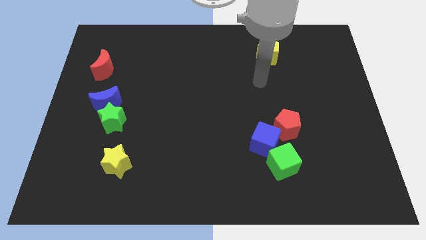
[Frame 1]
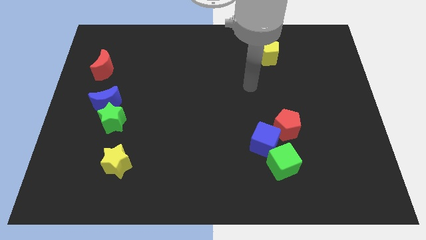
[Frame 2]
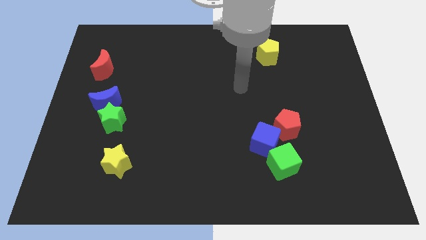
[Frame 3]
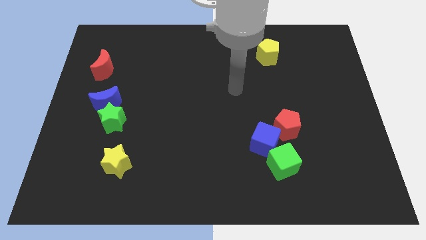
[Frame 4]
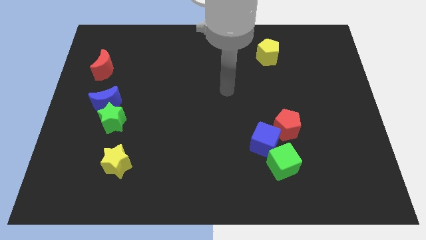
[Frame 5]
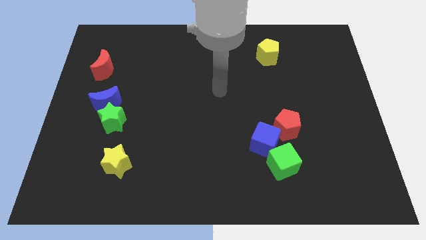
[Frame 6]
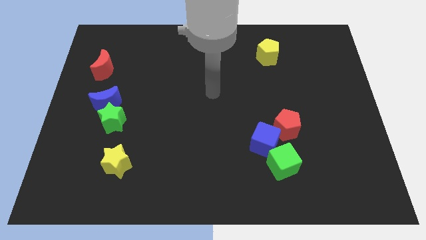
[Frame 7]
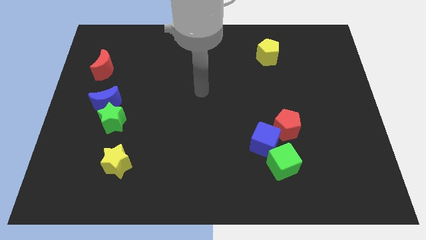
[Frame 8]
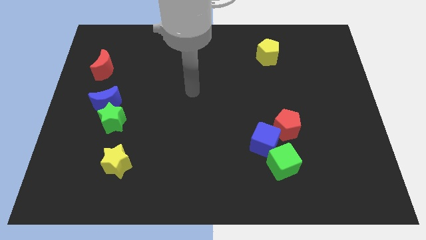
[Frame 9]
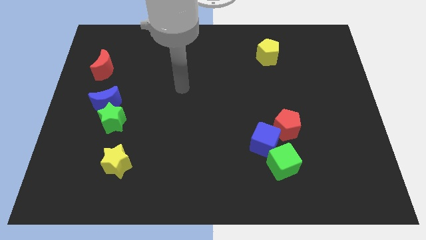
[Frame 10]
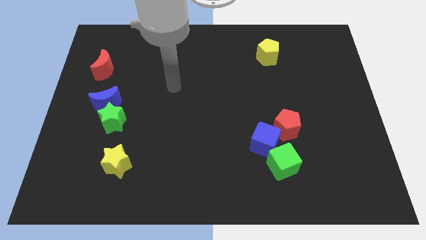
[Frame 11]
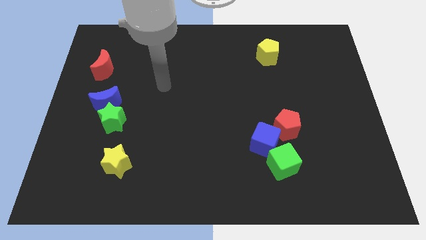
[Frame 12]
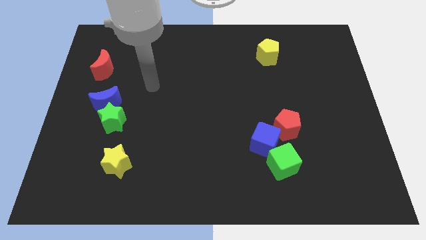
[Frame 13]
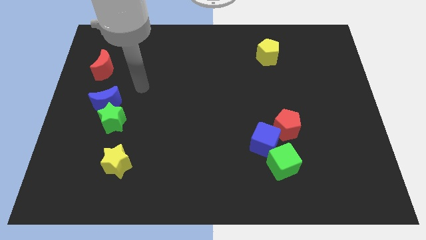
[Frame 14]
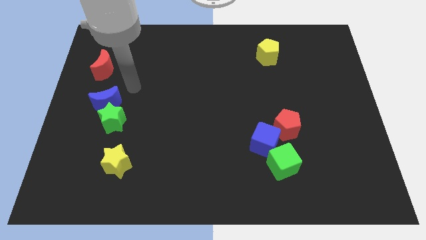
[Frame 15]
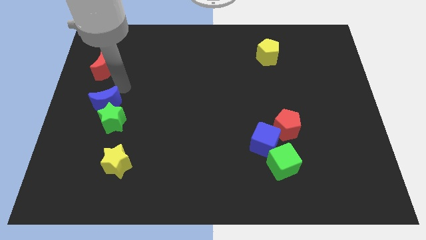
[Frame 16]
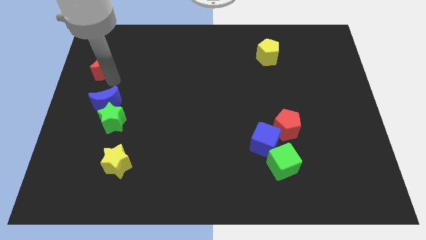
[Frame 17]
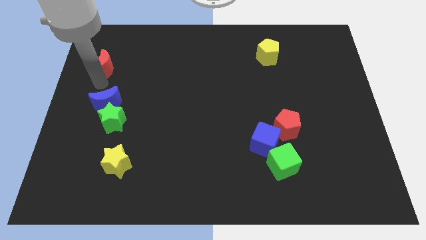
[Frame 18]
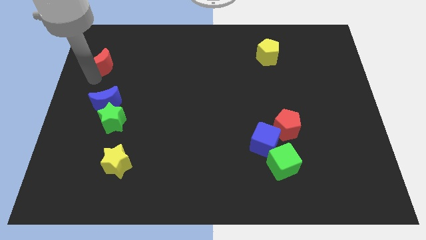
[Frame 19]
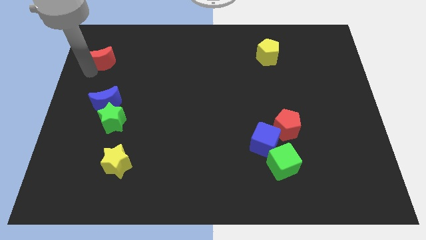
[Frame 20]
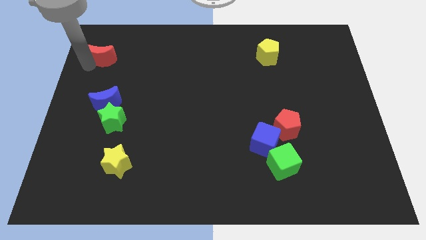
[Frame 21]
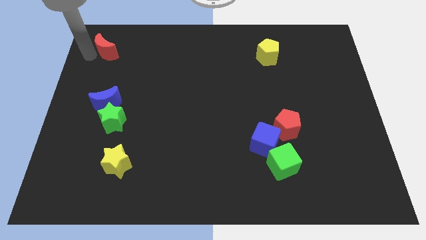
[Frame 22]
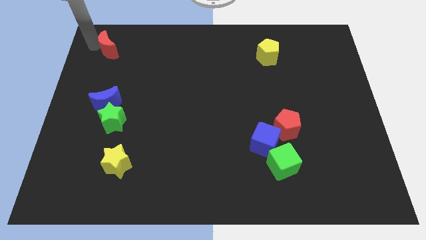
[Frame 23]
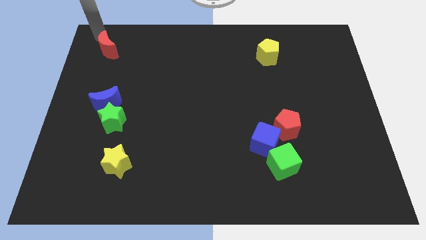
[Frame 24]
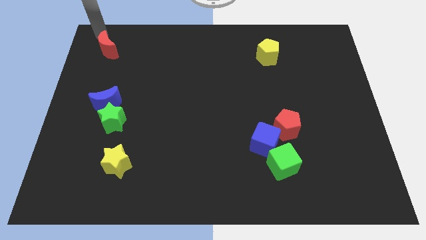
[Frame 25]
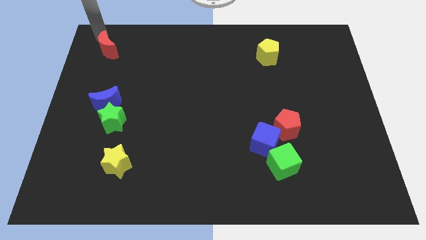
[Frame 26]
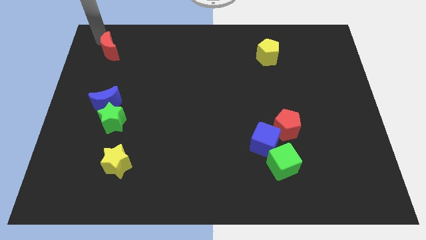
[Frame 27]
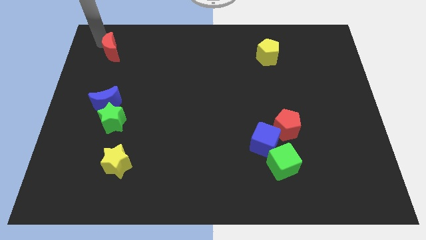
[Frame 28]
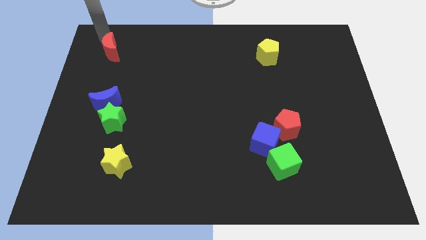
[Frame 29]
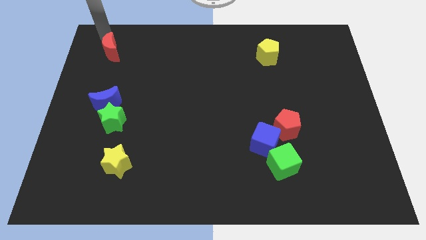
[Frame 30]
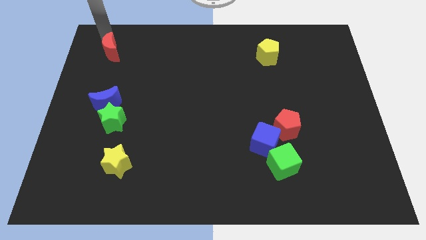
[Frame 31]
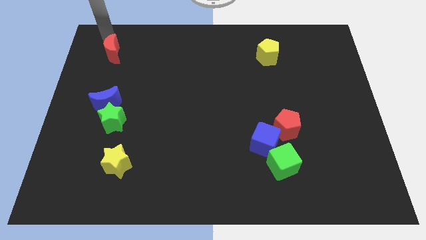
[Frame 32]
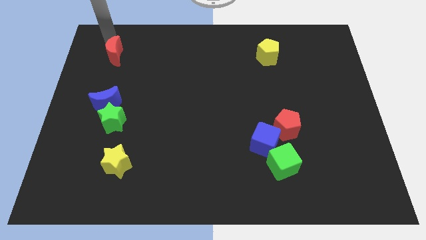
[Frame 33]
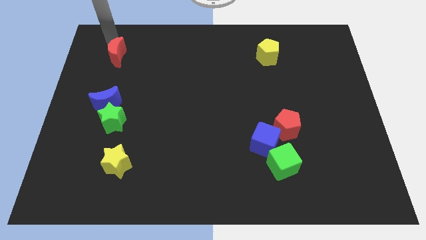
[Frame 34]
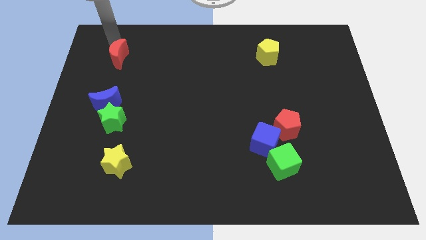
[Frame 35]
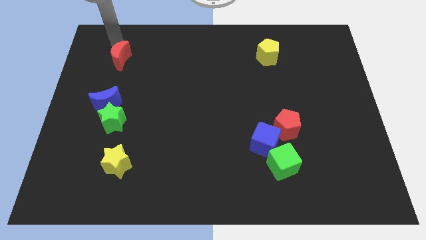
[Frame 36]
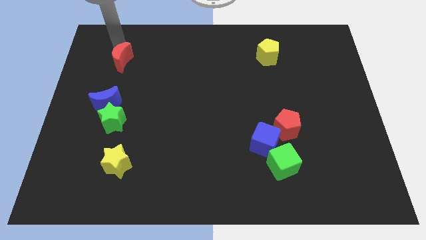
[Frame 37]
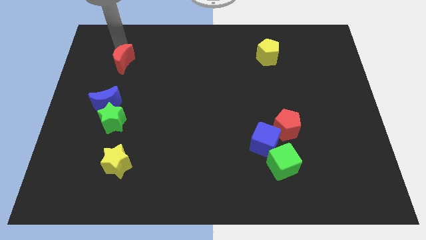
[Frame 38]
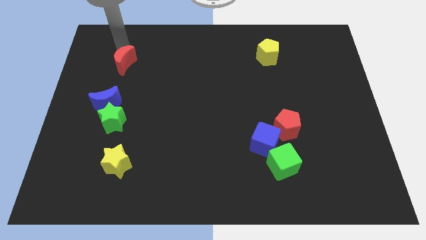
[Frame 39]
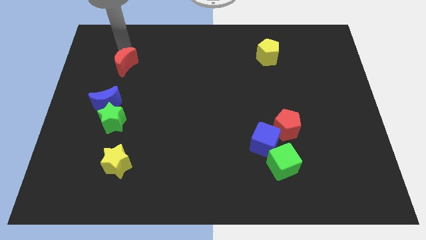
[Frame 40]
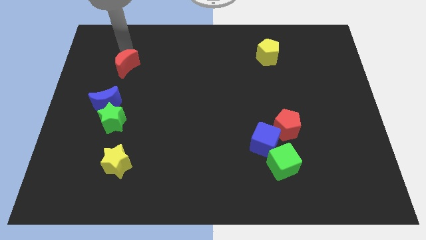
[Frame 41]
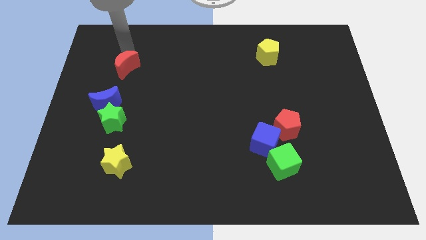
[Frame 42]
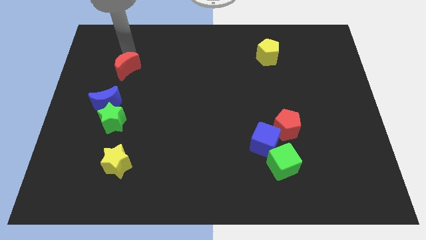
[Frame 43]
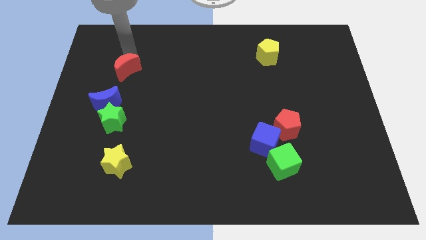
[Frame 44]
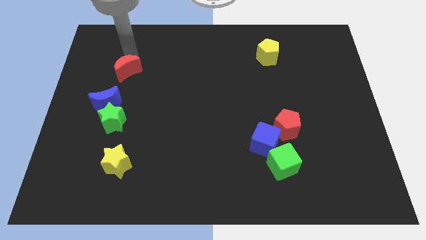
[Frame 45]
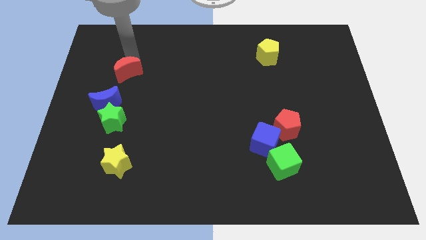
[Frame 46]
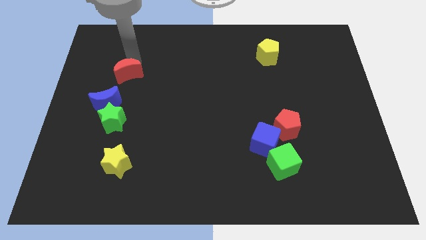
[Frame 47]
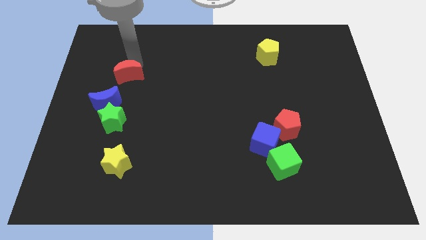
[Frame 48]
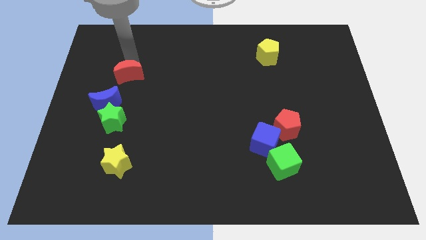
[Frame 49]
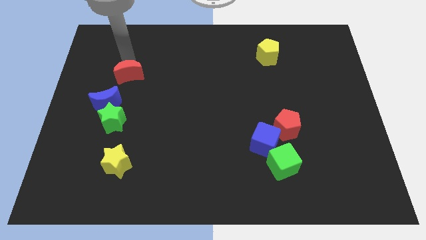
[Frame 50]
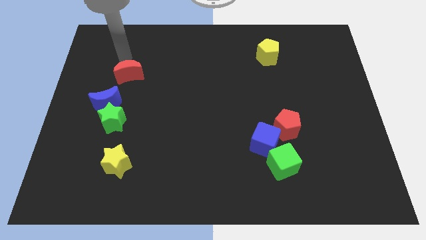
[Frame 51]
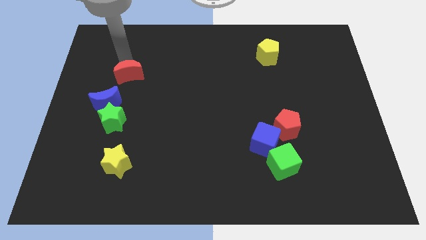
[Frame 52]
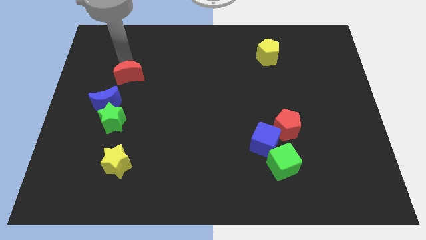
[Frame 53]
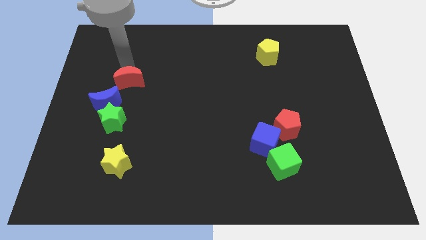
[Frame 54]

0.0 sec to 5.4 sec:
slightly push the red moon downwards and to the right diagonally

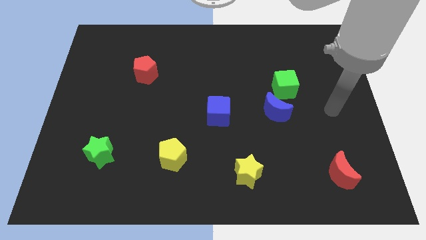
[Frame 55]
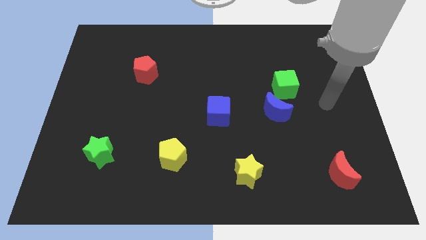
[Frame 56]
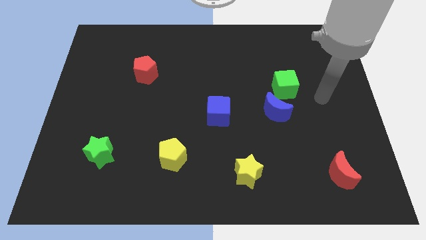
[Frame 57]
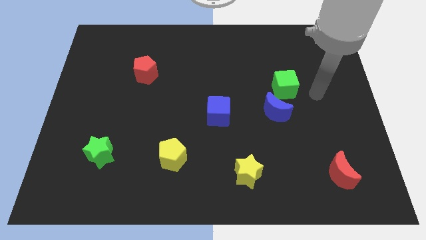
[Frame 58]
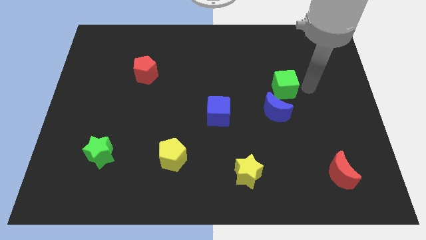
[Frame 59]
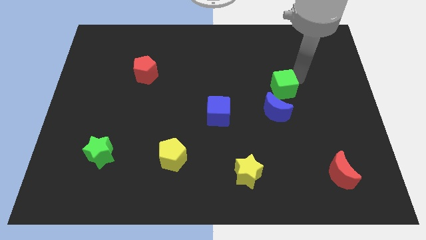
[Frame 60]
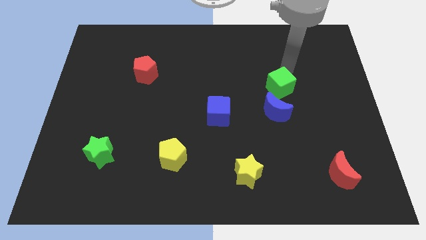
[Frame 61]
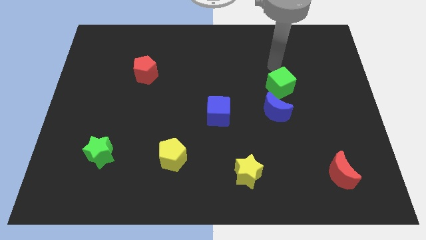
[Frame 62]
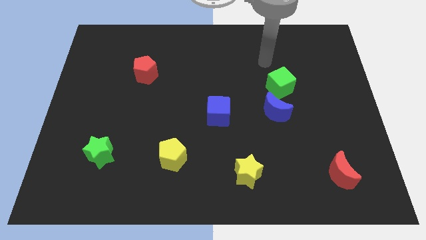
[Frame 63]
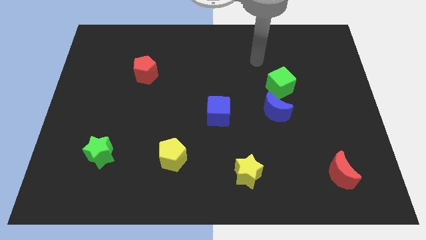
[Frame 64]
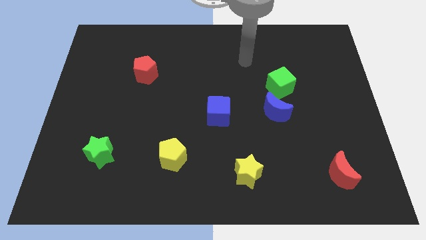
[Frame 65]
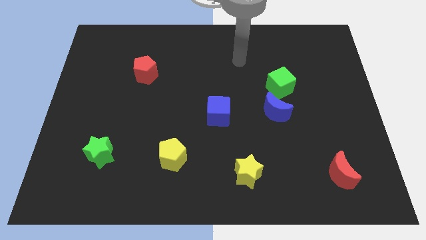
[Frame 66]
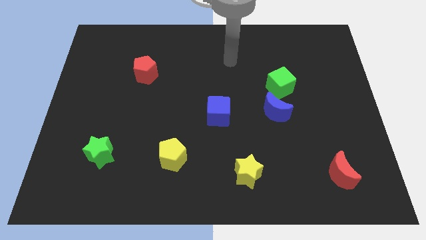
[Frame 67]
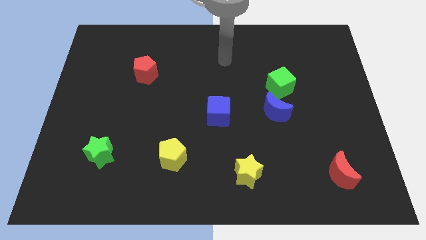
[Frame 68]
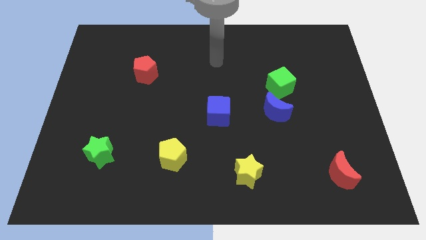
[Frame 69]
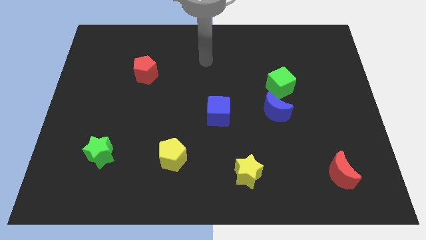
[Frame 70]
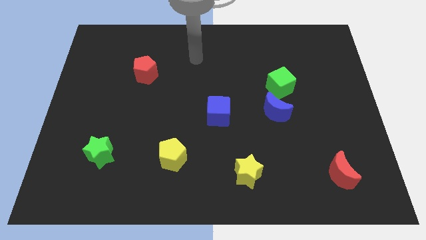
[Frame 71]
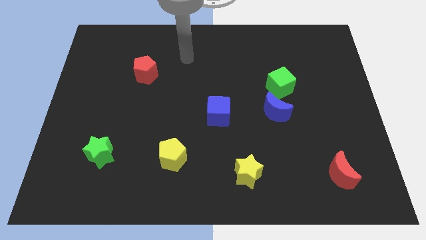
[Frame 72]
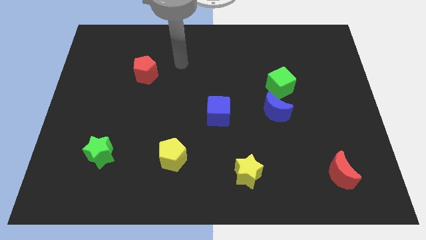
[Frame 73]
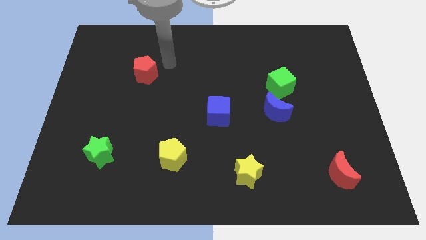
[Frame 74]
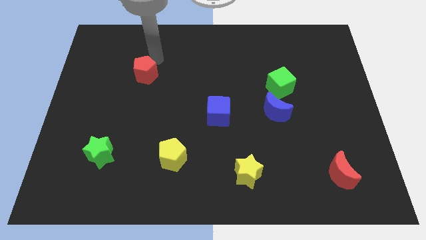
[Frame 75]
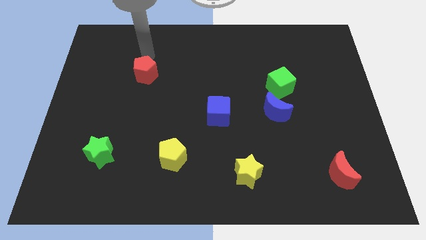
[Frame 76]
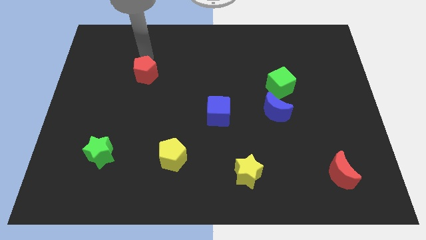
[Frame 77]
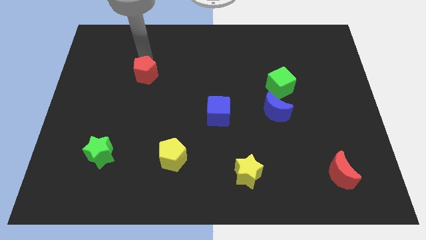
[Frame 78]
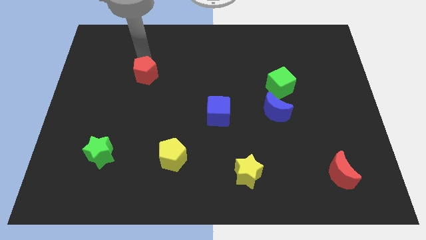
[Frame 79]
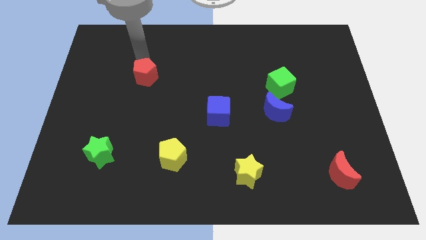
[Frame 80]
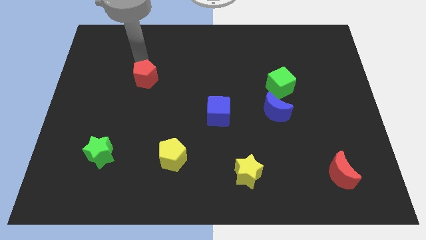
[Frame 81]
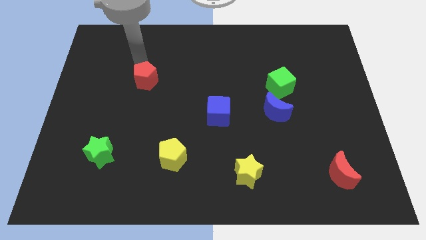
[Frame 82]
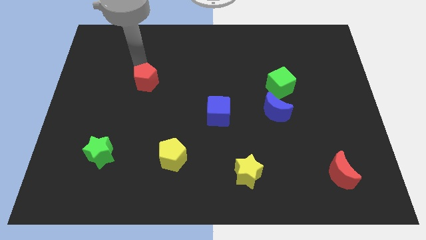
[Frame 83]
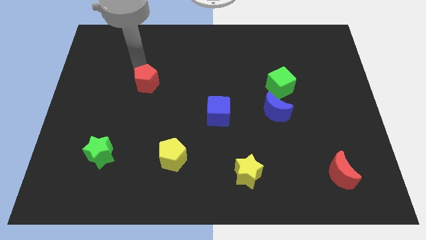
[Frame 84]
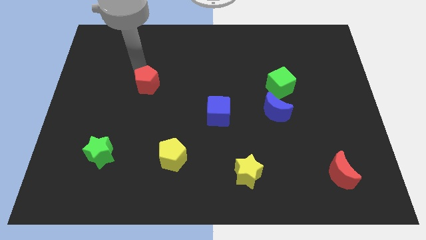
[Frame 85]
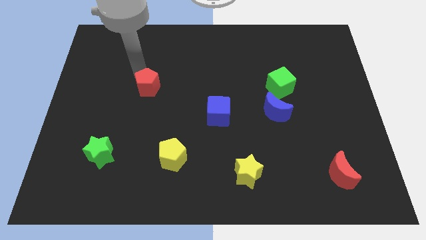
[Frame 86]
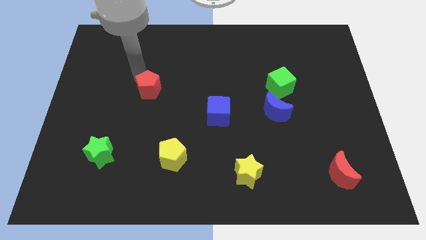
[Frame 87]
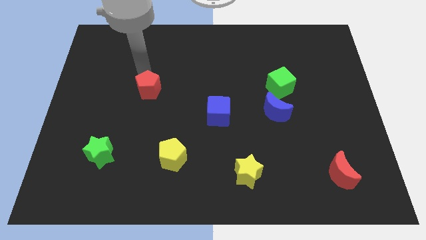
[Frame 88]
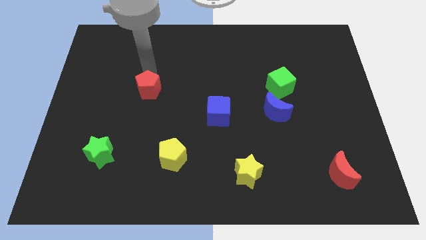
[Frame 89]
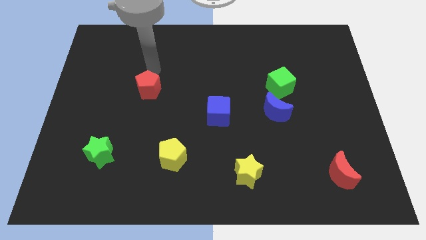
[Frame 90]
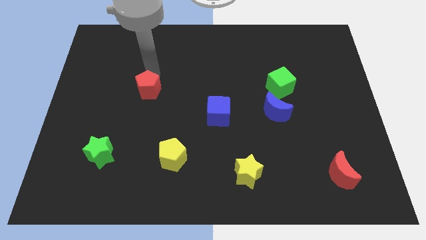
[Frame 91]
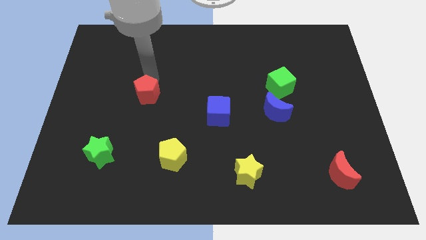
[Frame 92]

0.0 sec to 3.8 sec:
slide the red pentagon downwards slightly
